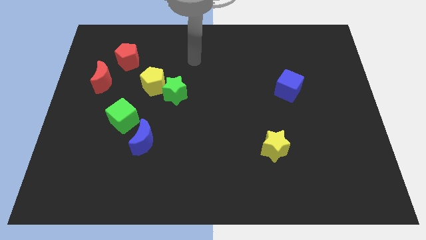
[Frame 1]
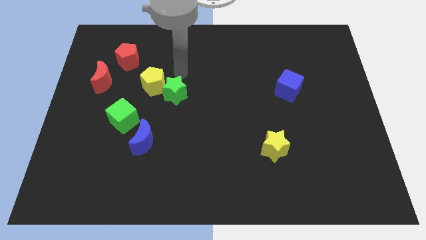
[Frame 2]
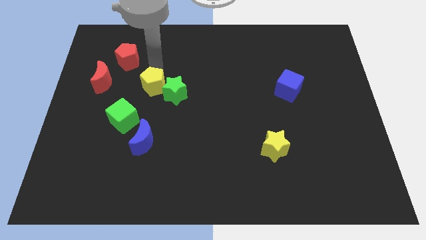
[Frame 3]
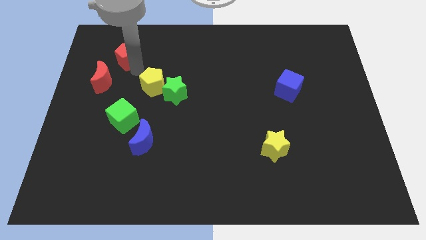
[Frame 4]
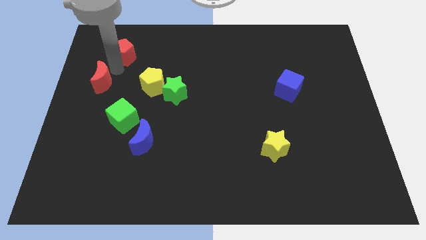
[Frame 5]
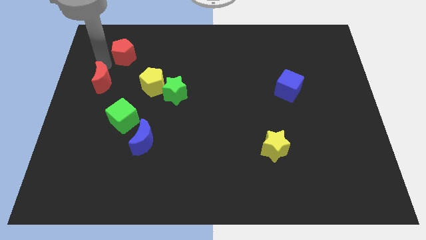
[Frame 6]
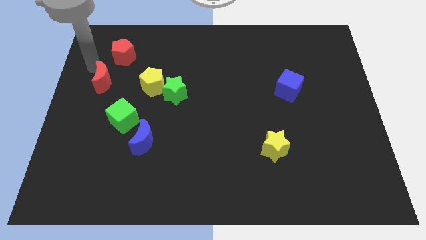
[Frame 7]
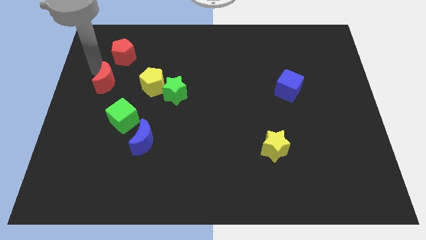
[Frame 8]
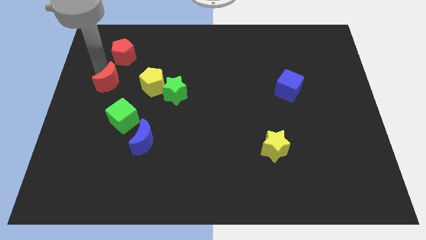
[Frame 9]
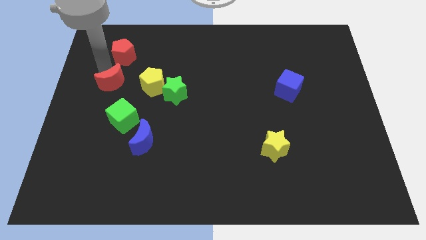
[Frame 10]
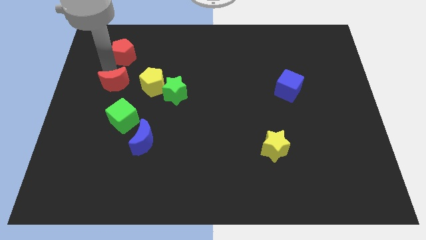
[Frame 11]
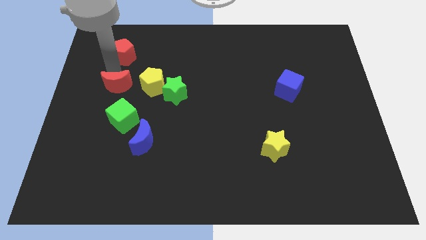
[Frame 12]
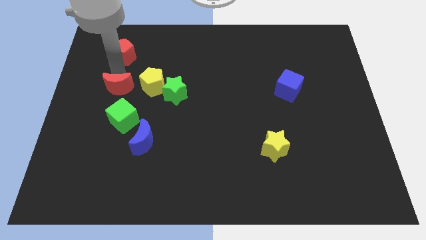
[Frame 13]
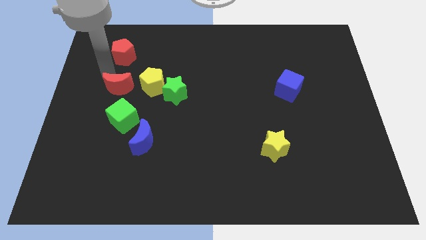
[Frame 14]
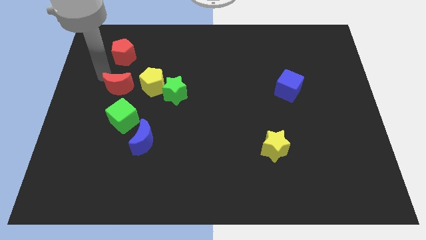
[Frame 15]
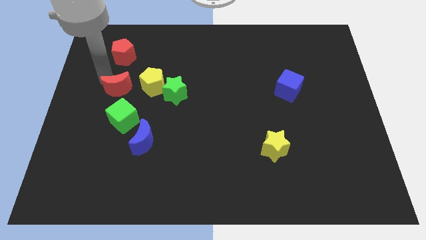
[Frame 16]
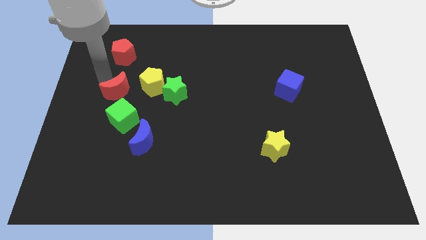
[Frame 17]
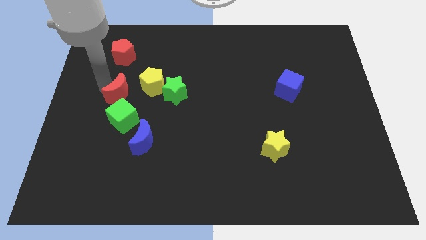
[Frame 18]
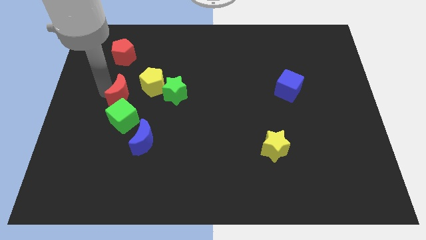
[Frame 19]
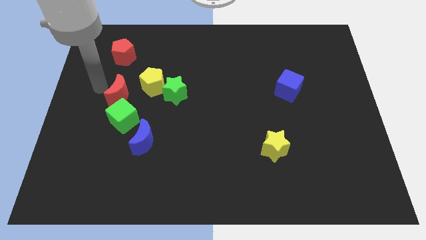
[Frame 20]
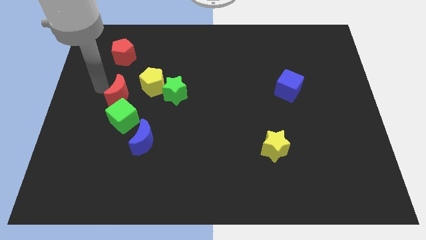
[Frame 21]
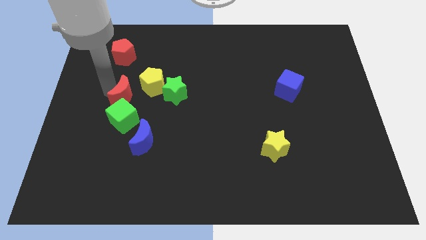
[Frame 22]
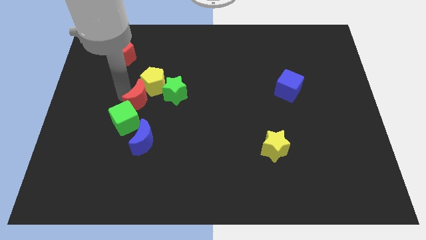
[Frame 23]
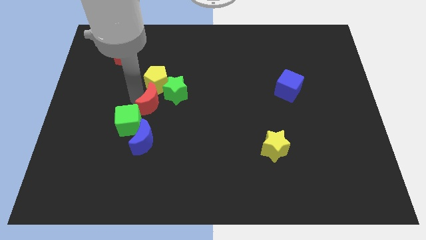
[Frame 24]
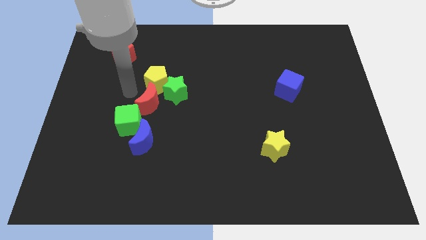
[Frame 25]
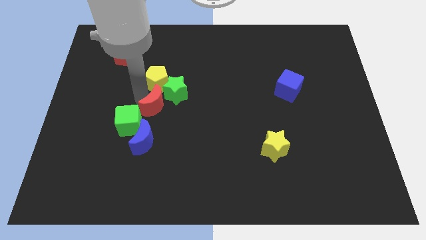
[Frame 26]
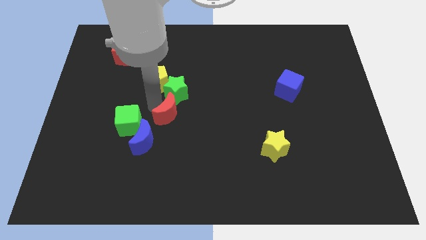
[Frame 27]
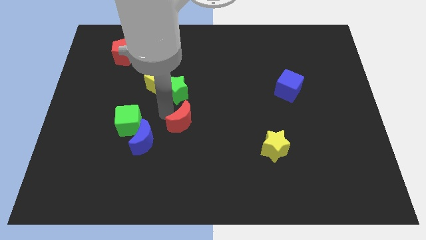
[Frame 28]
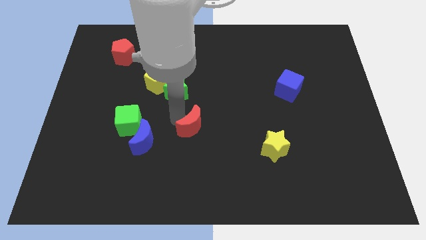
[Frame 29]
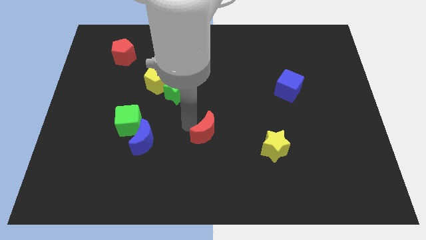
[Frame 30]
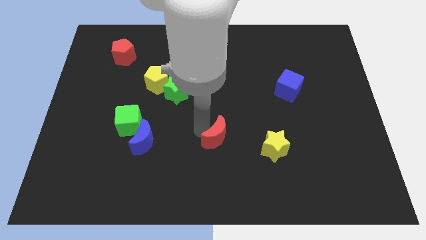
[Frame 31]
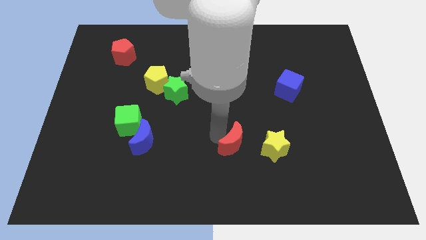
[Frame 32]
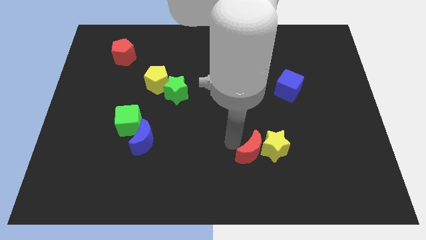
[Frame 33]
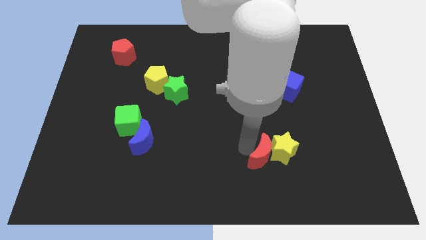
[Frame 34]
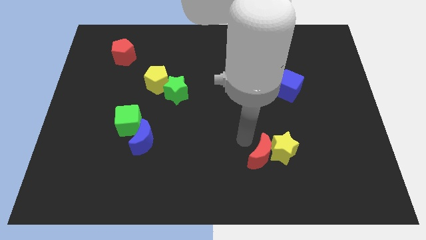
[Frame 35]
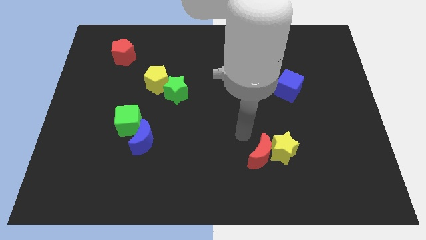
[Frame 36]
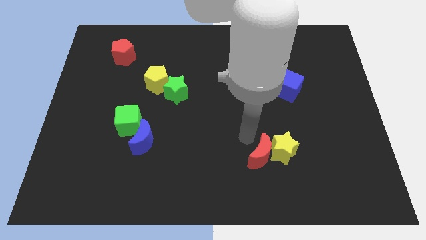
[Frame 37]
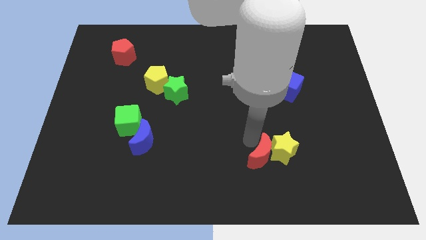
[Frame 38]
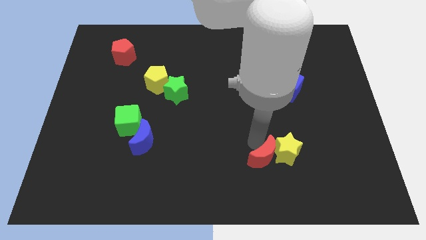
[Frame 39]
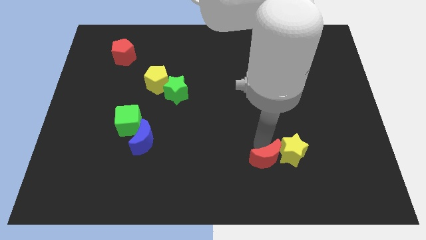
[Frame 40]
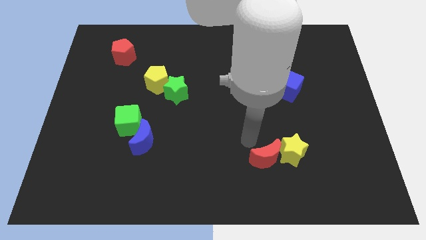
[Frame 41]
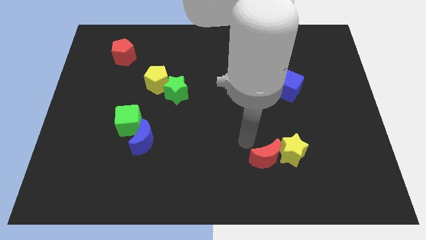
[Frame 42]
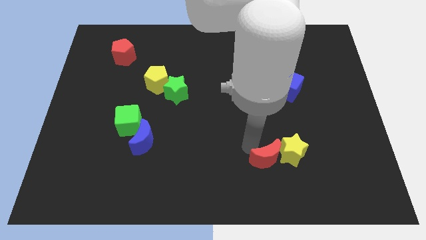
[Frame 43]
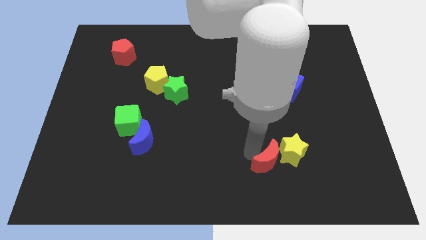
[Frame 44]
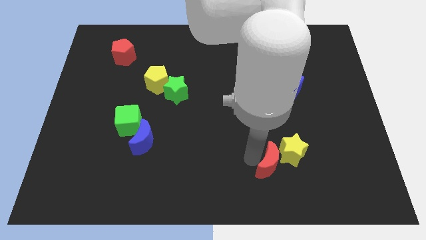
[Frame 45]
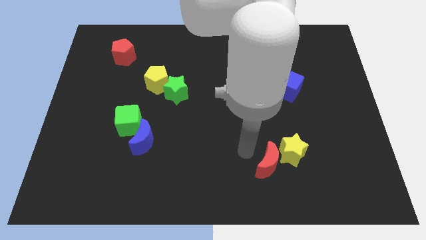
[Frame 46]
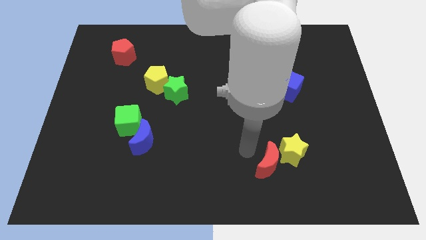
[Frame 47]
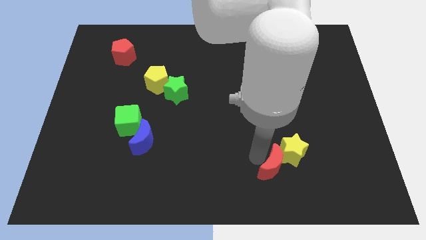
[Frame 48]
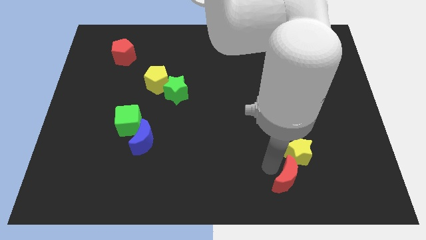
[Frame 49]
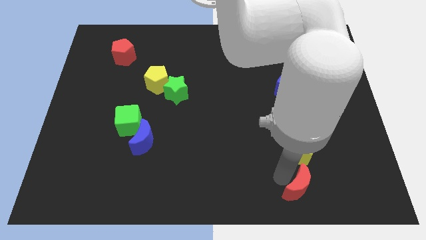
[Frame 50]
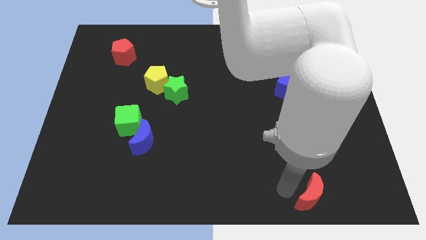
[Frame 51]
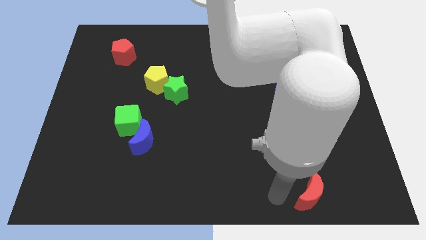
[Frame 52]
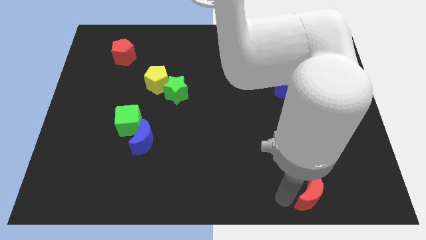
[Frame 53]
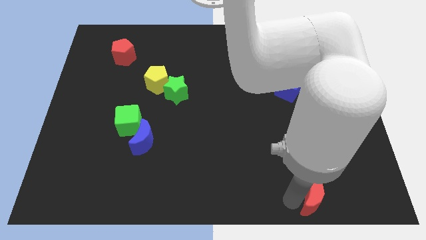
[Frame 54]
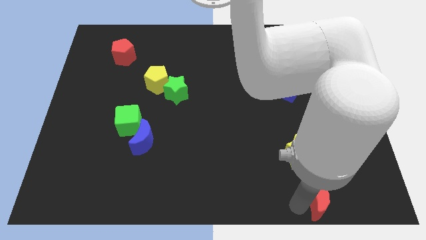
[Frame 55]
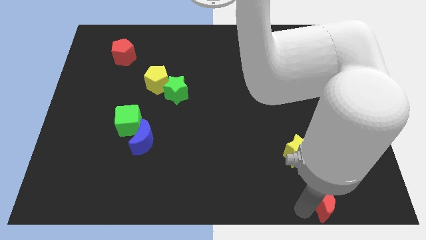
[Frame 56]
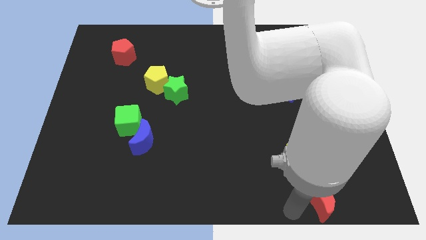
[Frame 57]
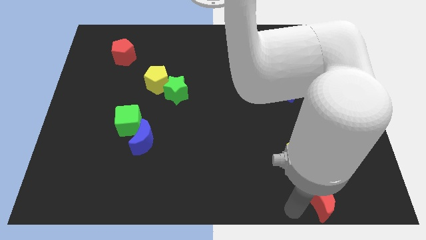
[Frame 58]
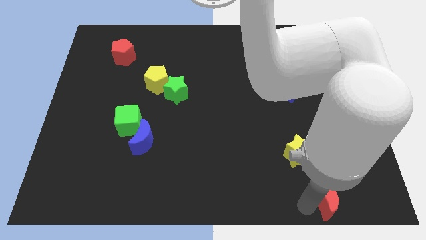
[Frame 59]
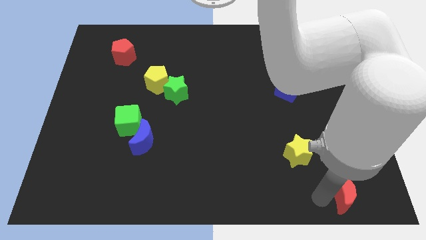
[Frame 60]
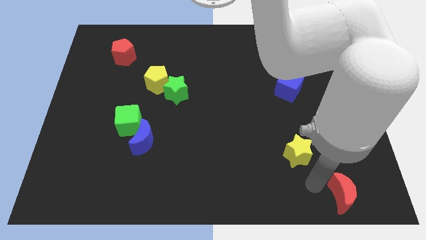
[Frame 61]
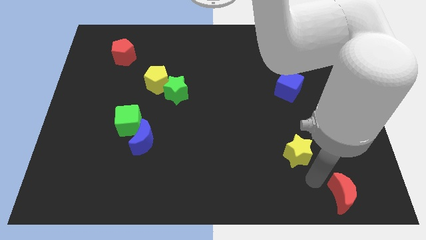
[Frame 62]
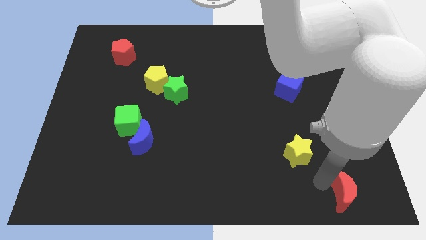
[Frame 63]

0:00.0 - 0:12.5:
push the red moon to the bottom right of the board
